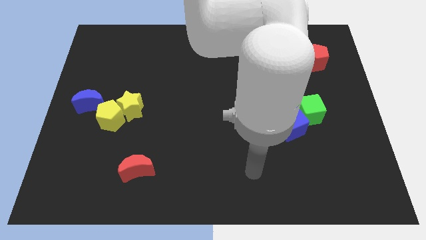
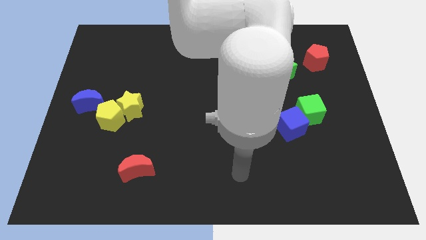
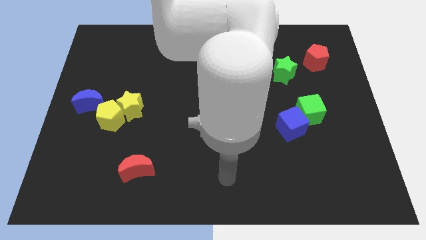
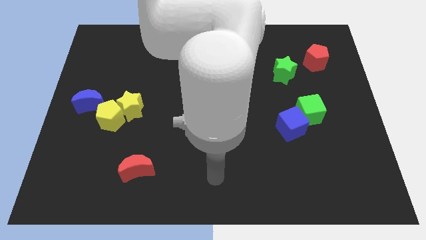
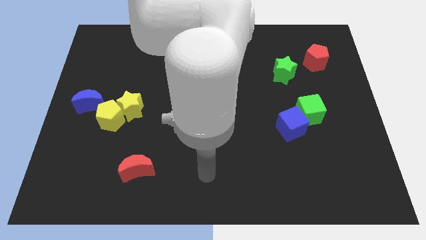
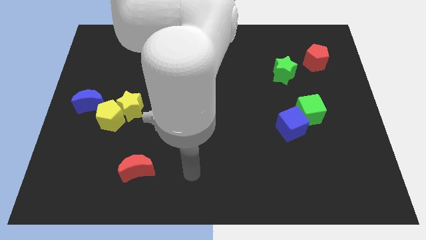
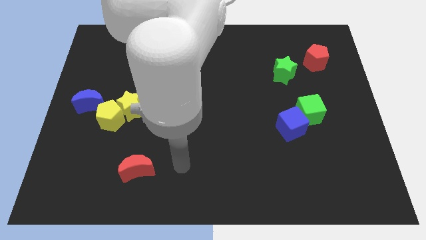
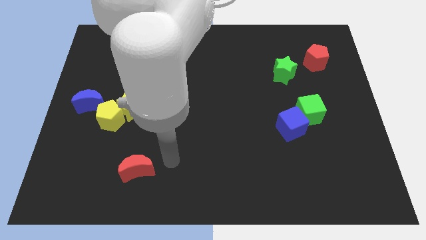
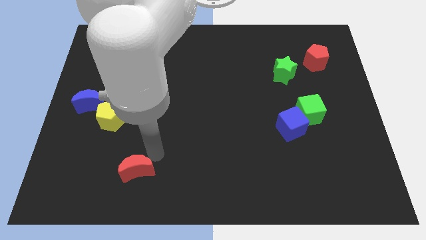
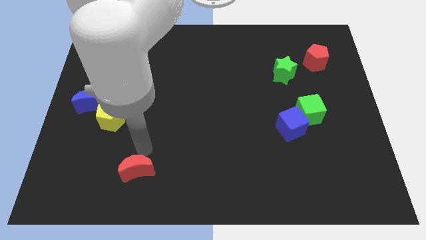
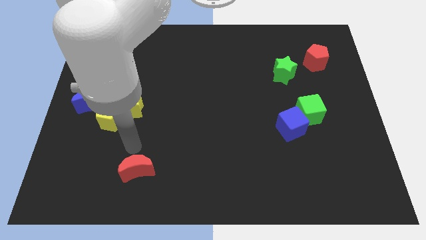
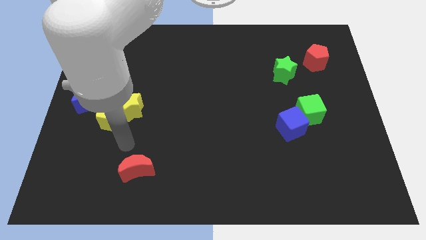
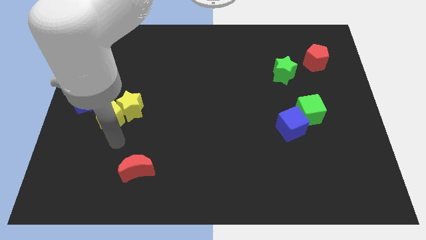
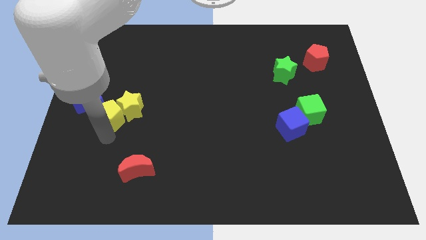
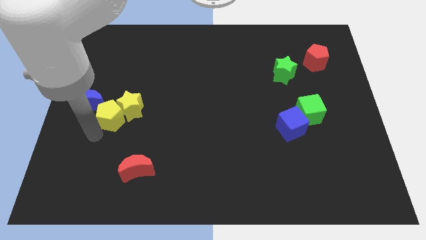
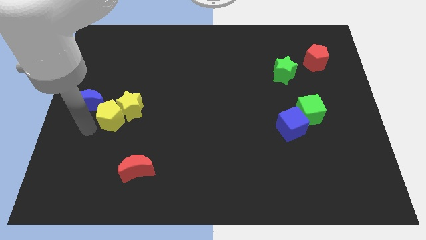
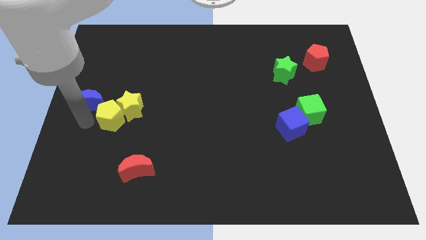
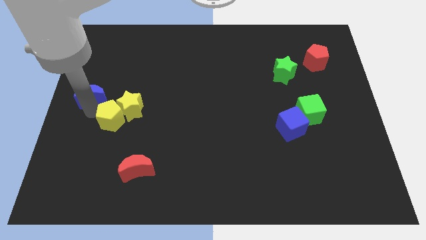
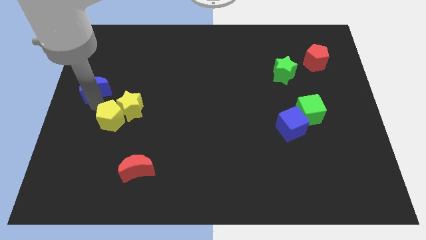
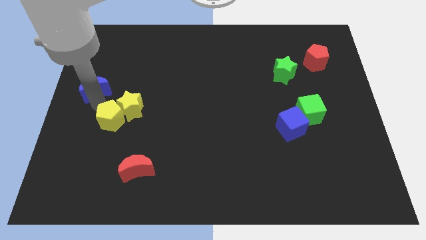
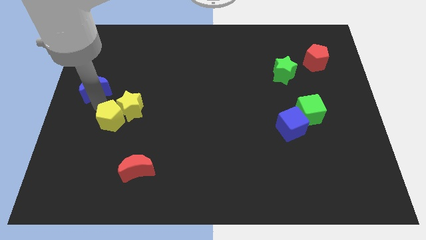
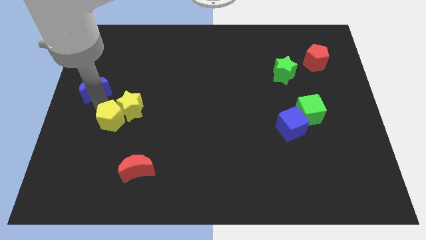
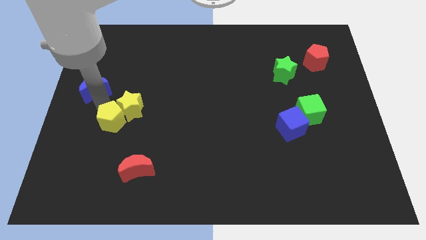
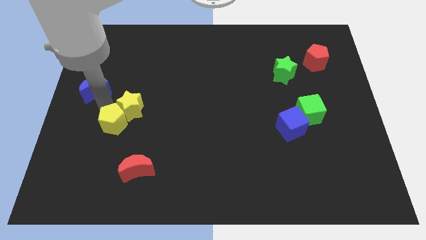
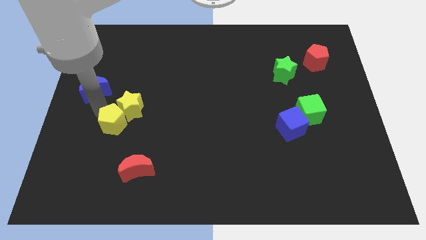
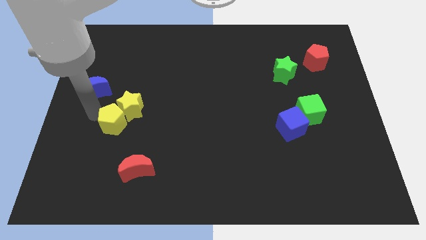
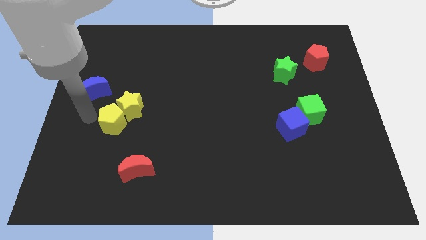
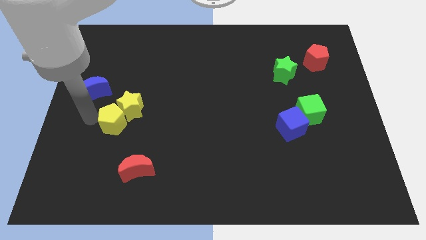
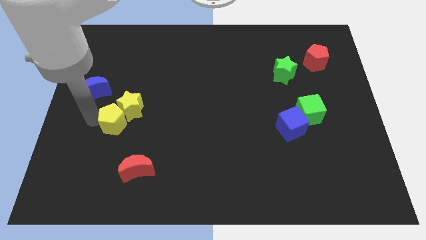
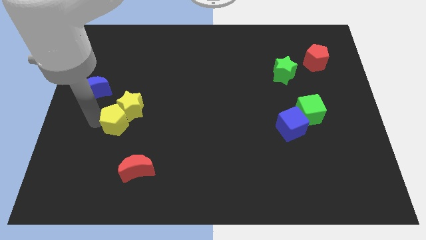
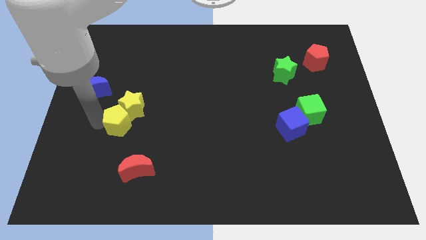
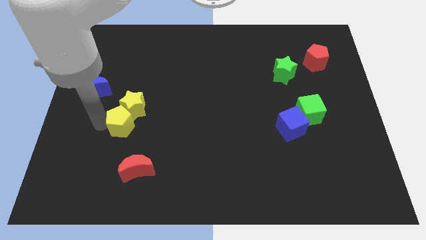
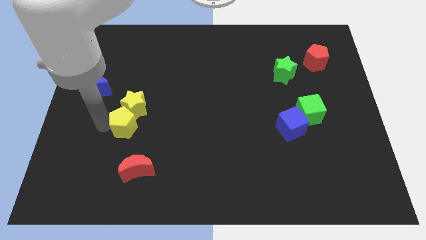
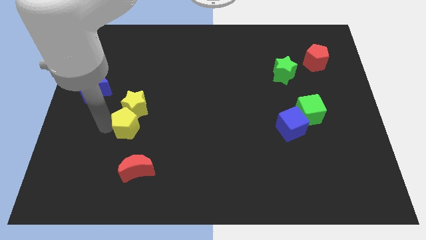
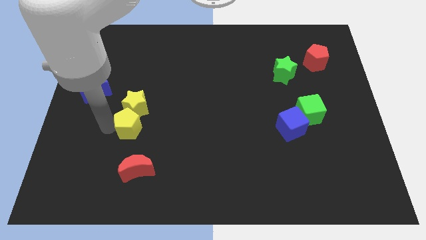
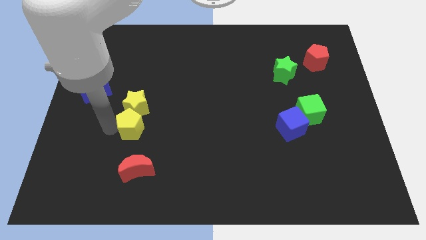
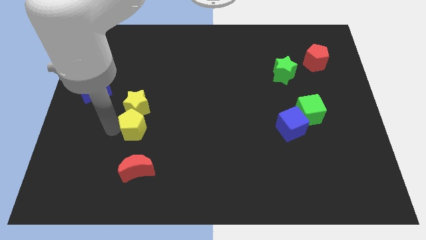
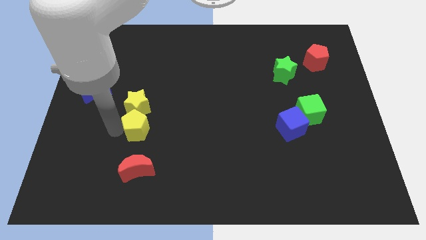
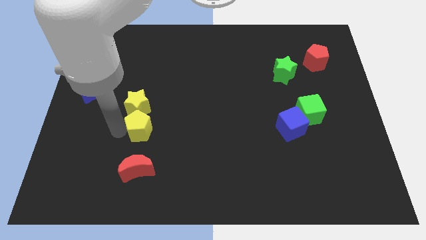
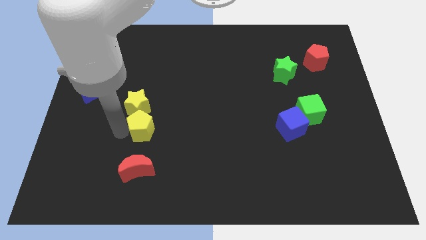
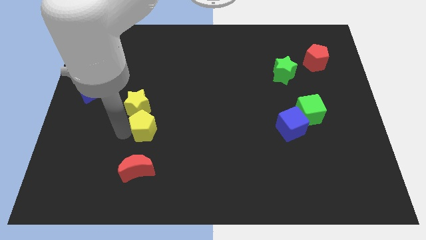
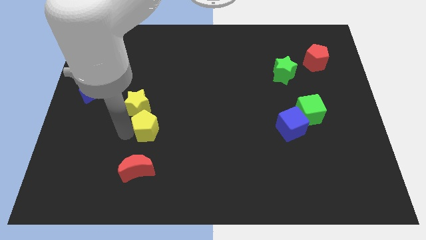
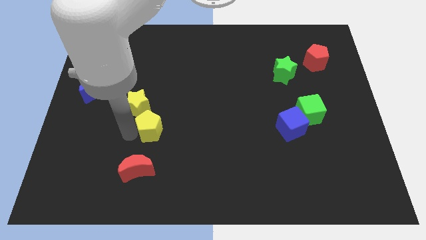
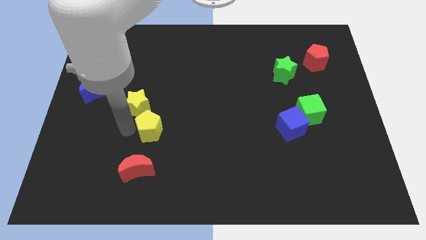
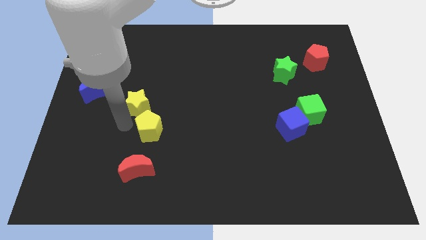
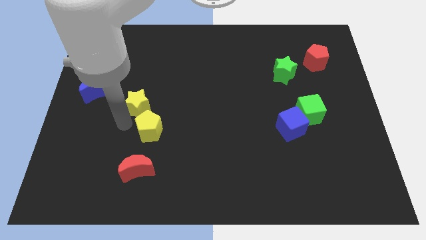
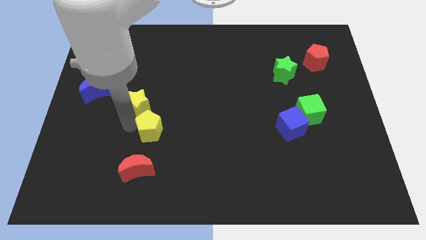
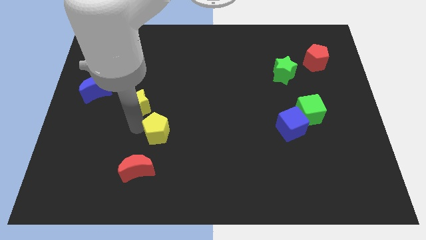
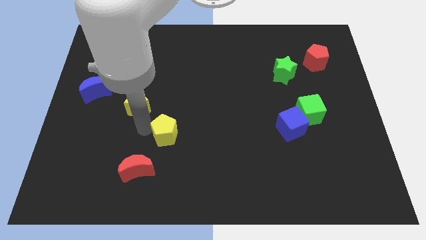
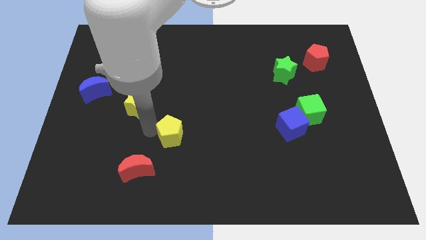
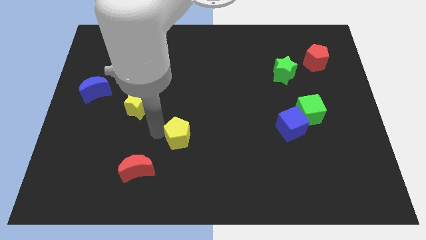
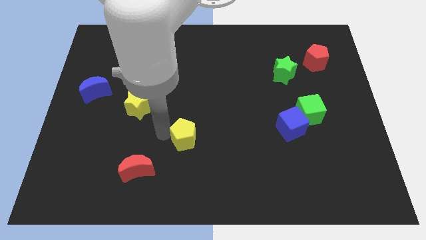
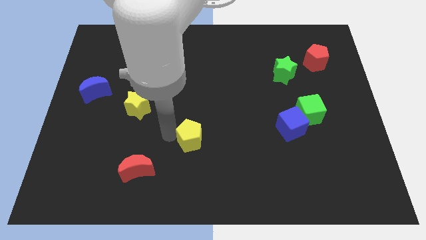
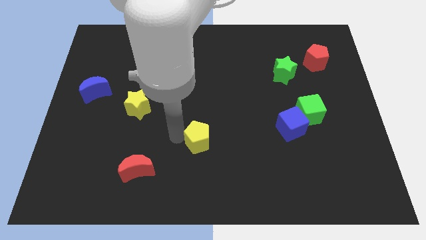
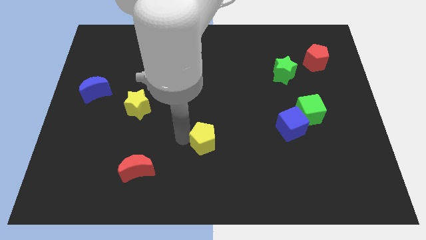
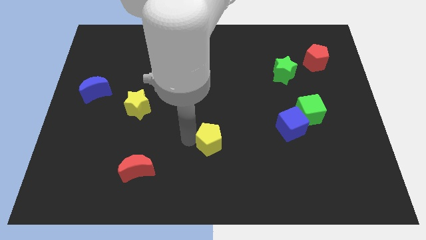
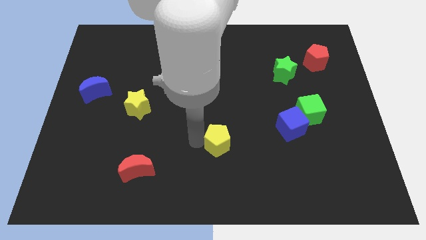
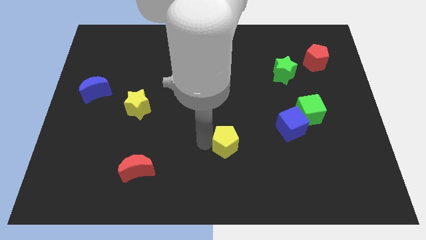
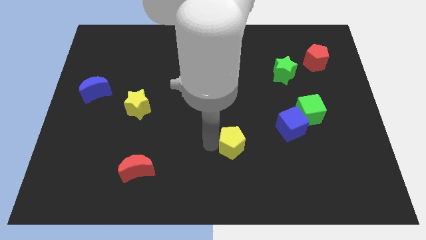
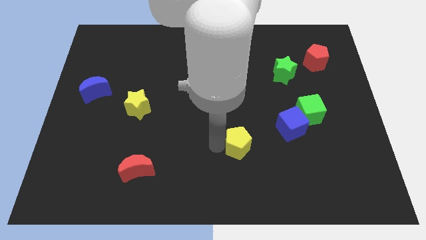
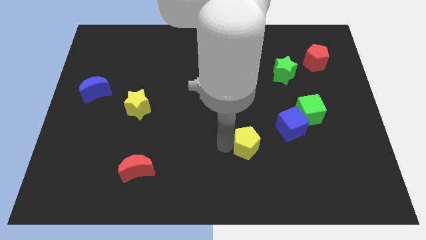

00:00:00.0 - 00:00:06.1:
push the yellow pentagon to the bottom left of the blue cube

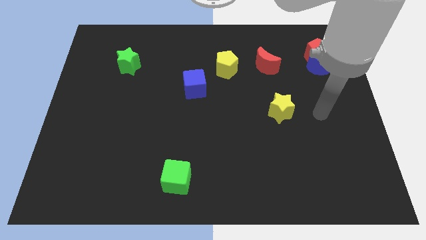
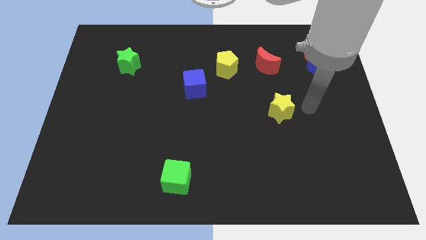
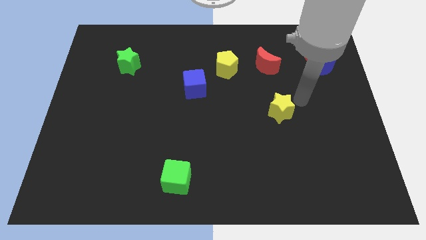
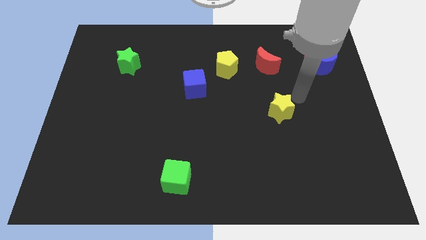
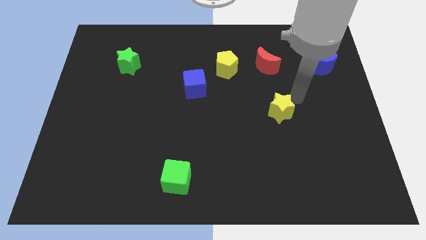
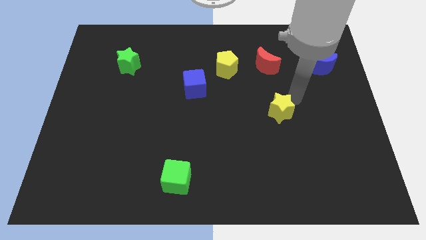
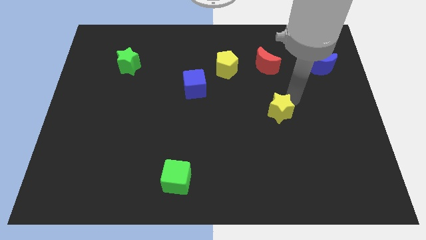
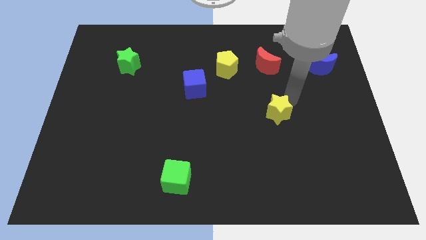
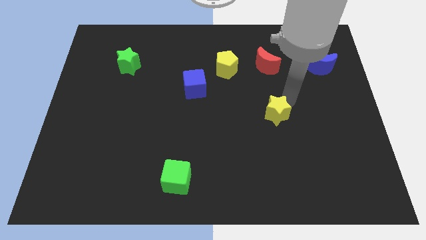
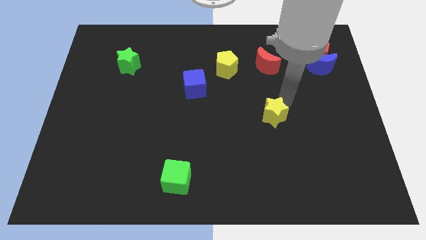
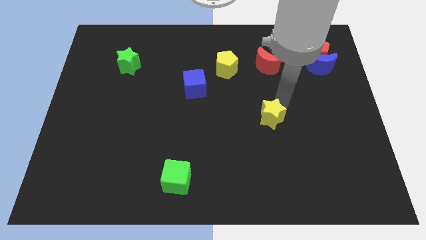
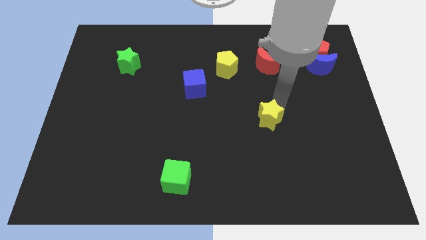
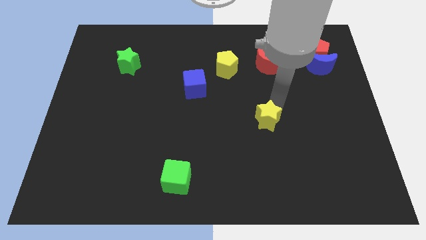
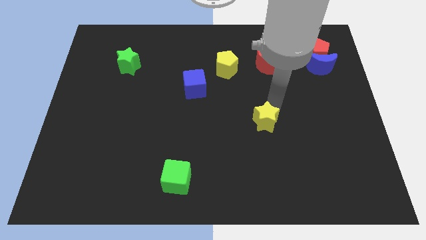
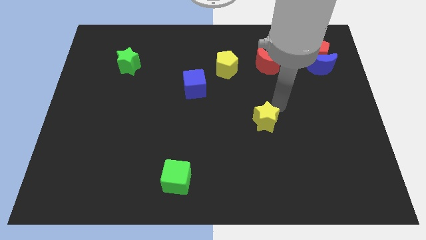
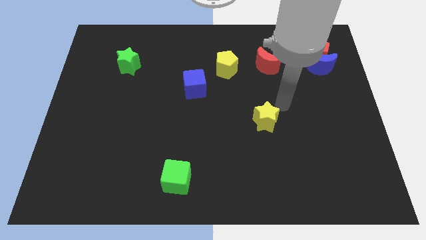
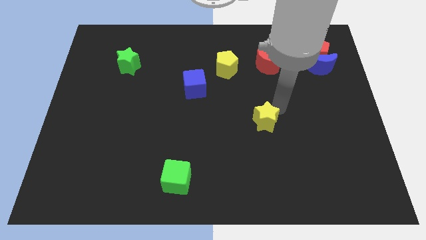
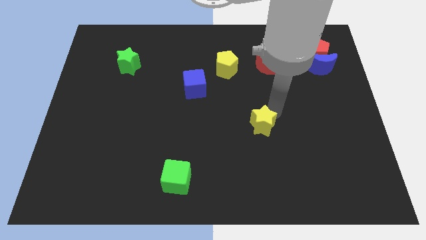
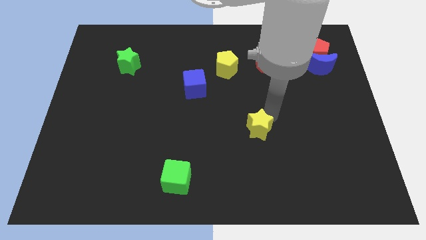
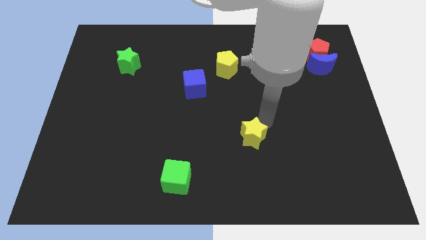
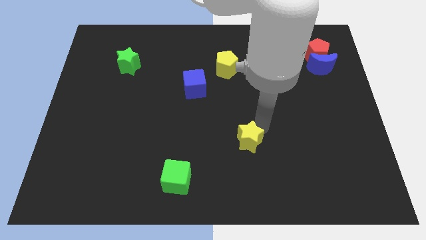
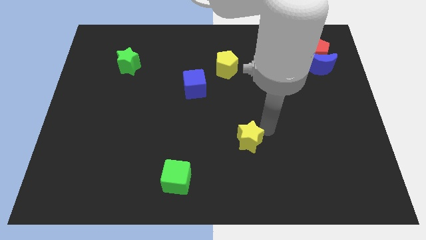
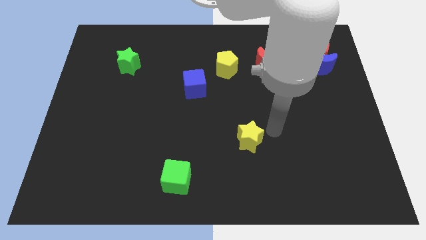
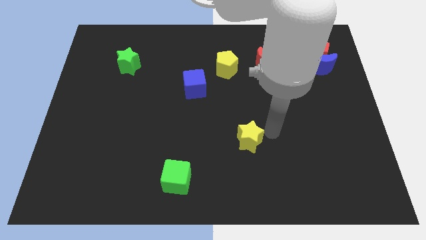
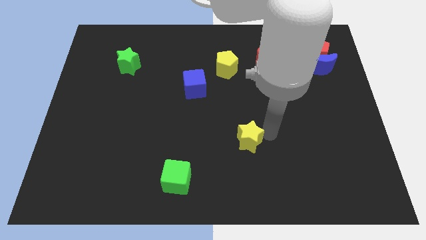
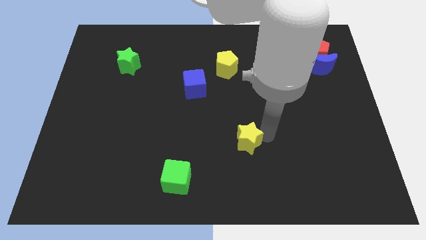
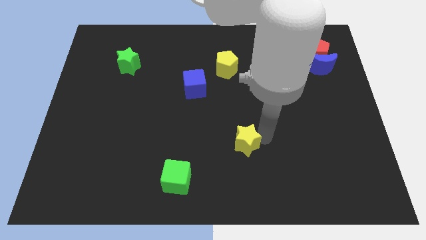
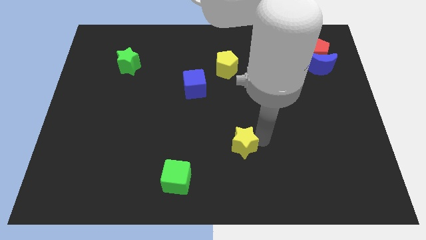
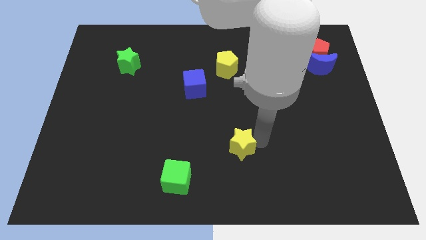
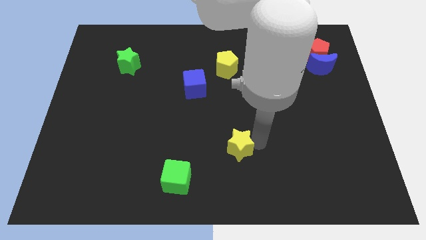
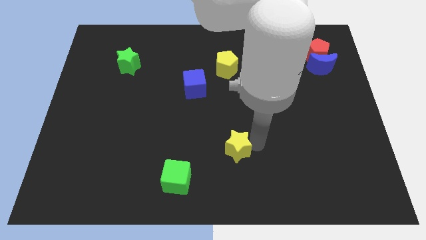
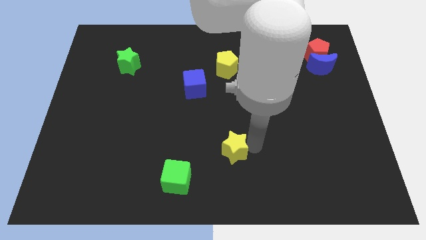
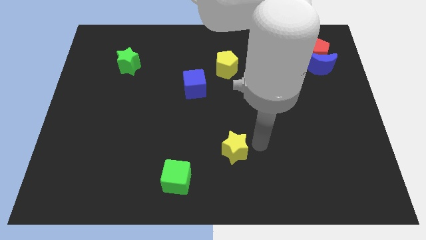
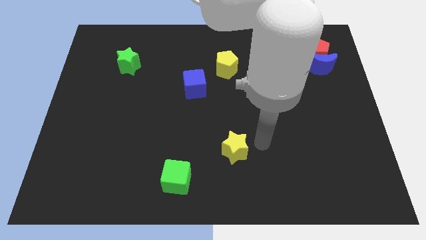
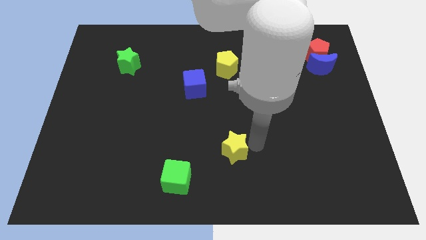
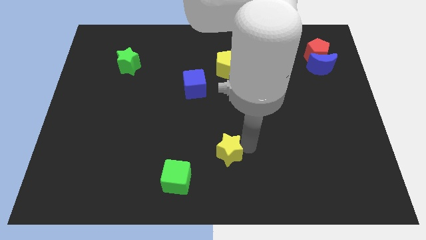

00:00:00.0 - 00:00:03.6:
push the yellow star to the top right side of the green cube
